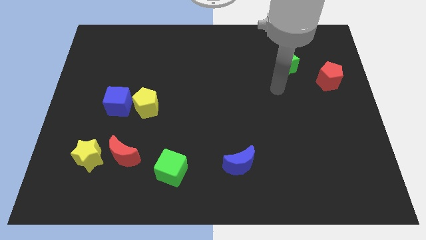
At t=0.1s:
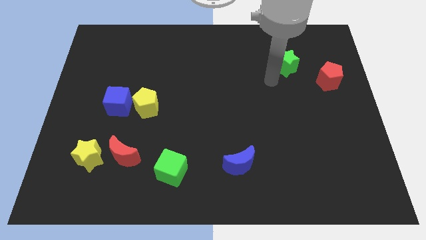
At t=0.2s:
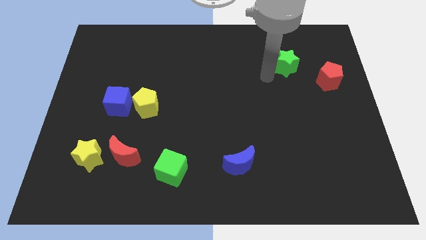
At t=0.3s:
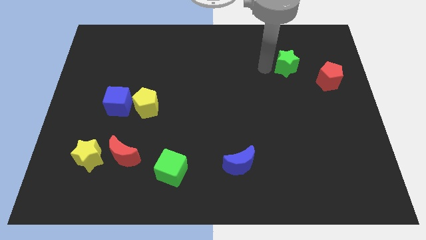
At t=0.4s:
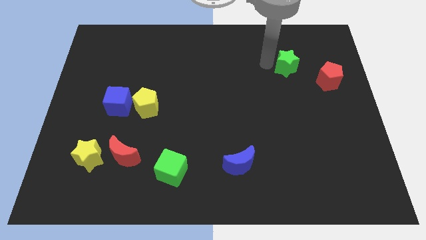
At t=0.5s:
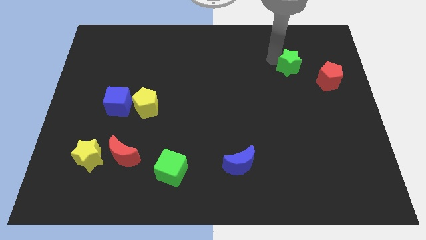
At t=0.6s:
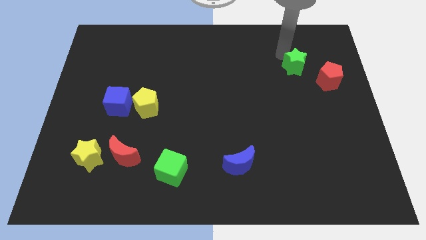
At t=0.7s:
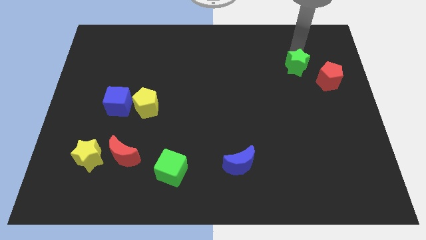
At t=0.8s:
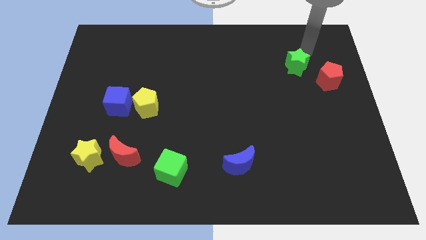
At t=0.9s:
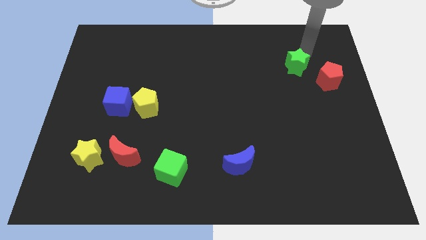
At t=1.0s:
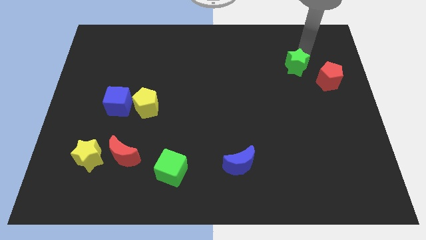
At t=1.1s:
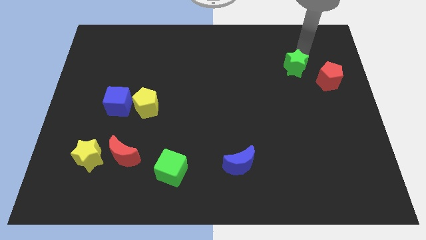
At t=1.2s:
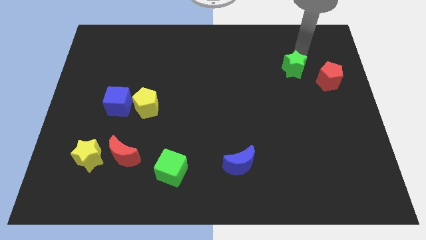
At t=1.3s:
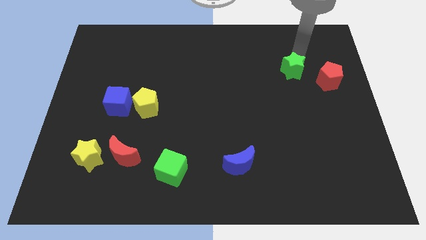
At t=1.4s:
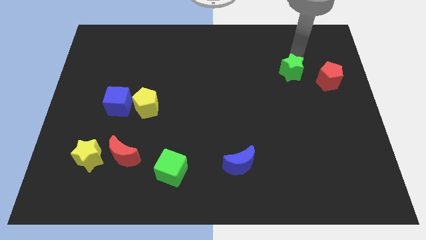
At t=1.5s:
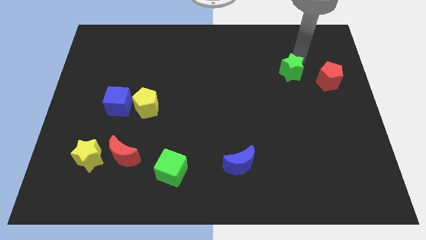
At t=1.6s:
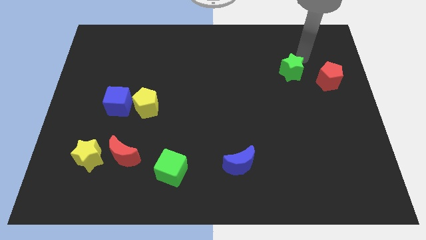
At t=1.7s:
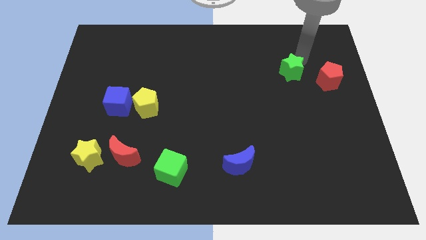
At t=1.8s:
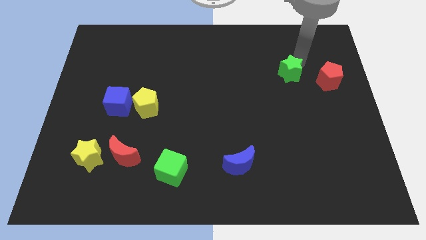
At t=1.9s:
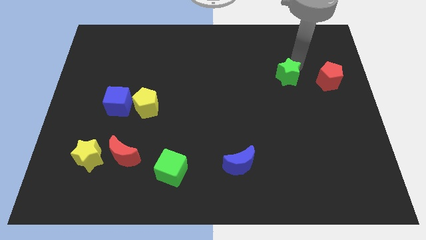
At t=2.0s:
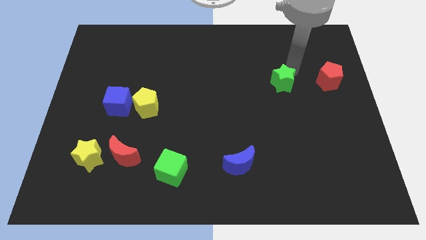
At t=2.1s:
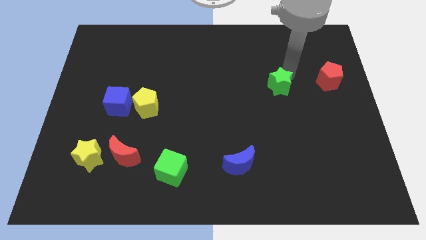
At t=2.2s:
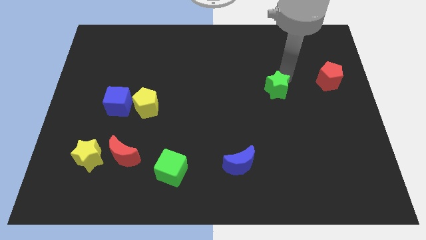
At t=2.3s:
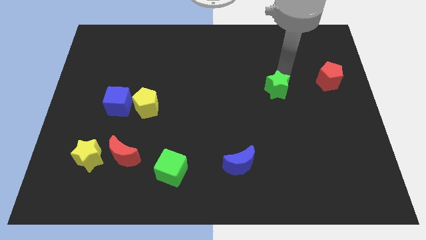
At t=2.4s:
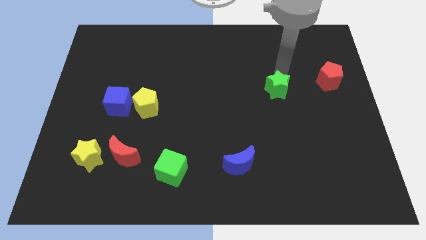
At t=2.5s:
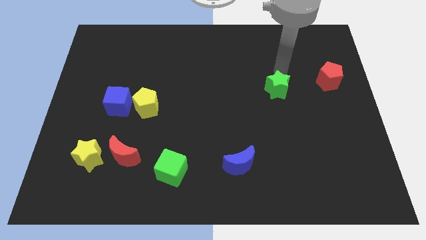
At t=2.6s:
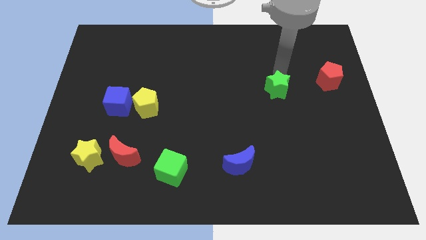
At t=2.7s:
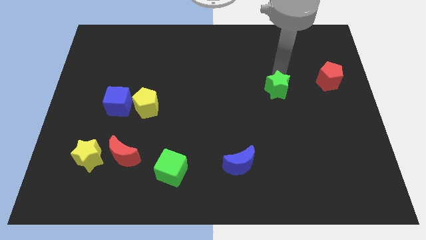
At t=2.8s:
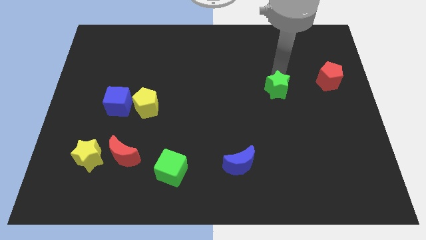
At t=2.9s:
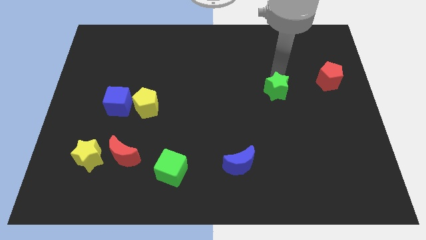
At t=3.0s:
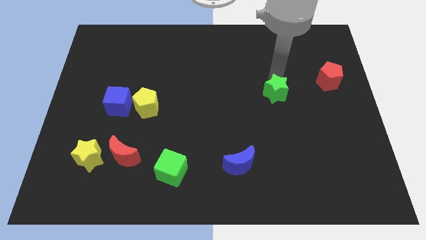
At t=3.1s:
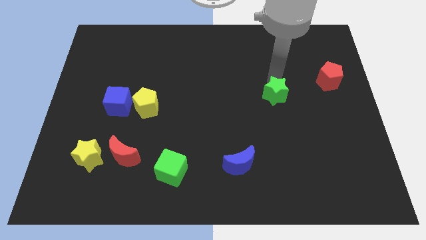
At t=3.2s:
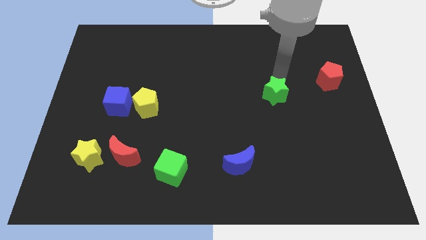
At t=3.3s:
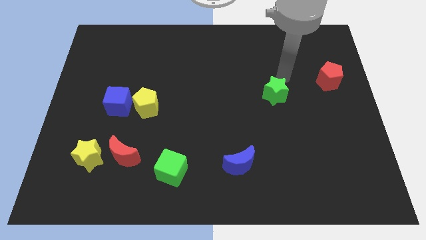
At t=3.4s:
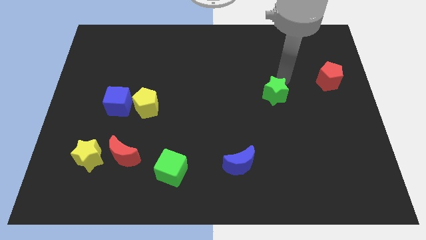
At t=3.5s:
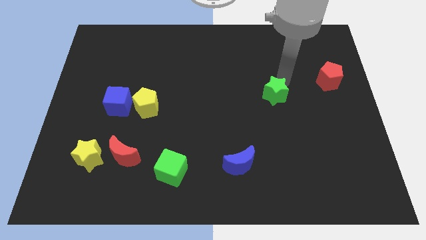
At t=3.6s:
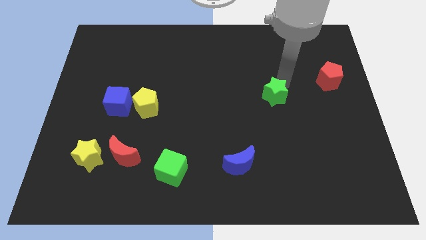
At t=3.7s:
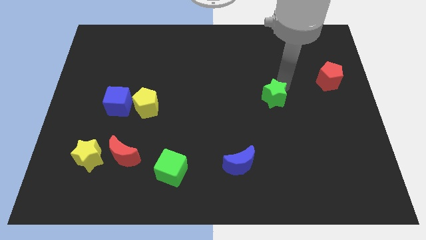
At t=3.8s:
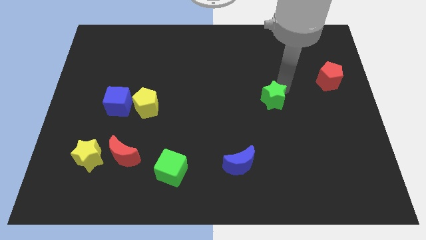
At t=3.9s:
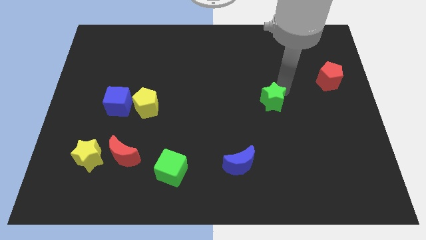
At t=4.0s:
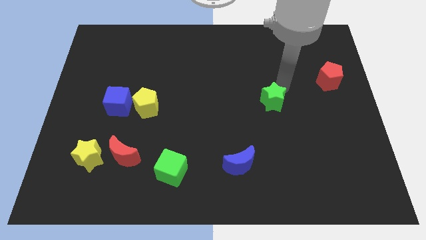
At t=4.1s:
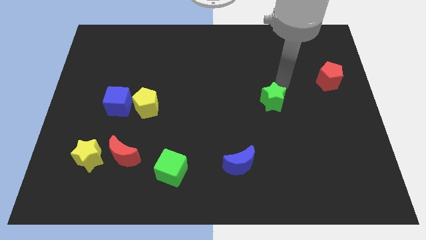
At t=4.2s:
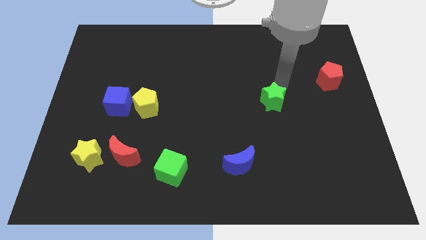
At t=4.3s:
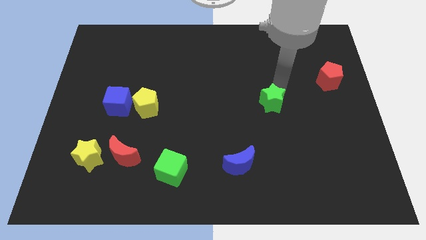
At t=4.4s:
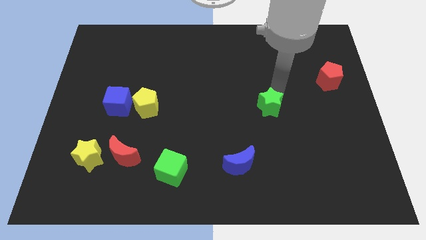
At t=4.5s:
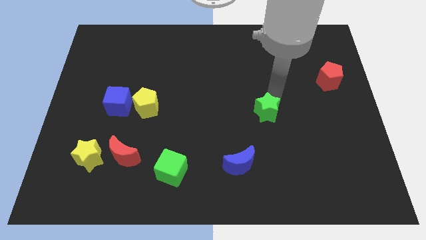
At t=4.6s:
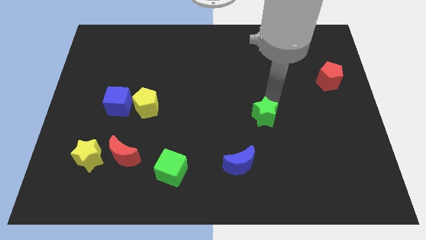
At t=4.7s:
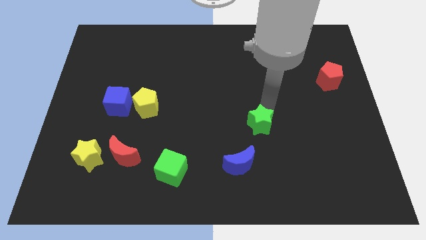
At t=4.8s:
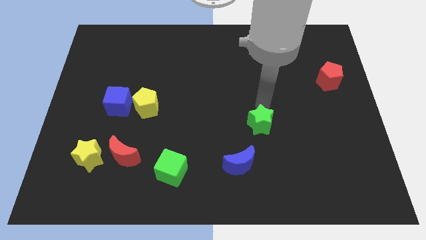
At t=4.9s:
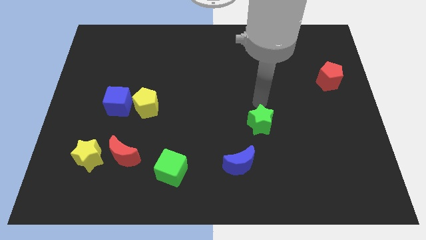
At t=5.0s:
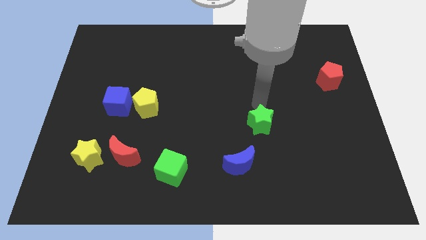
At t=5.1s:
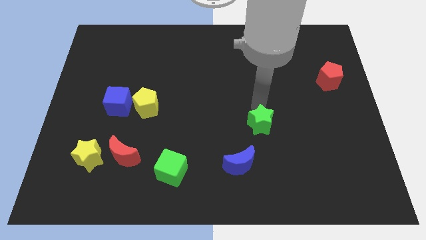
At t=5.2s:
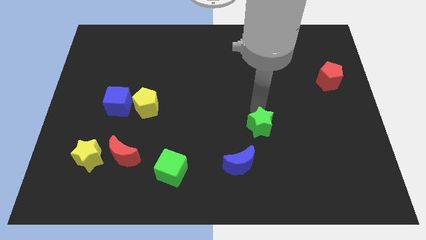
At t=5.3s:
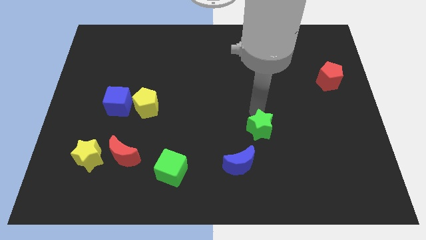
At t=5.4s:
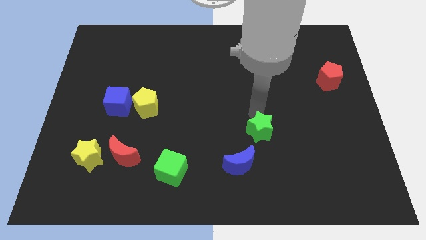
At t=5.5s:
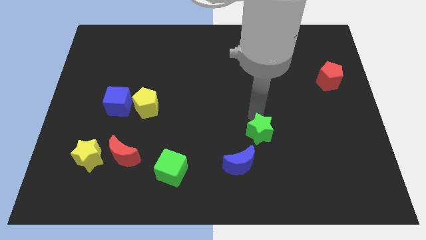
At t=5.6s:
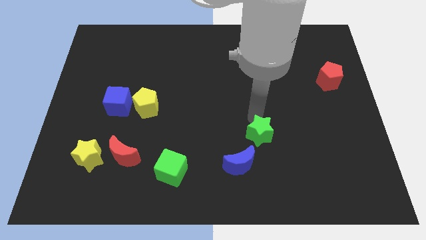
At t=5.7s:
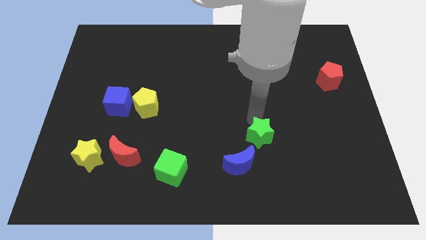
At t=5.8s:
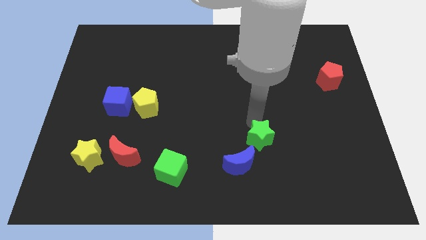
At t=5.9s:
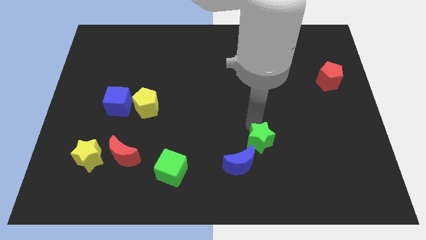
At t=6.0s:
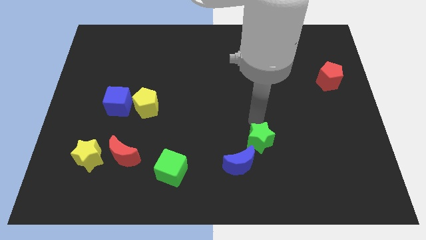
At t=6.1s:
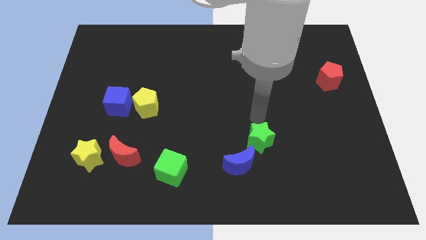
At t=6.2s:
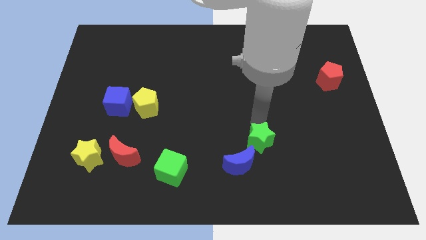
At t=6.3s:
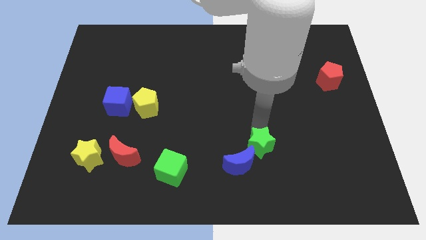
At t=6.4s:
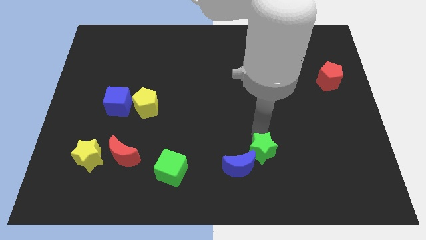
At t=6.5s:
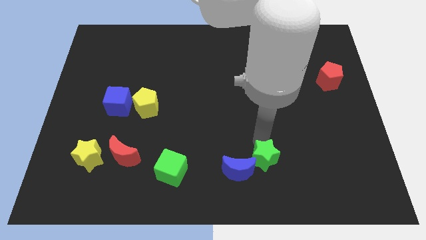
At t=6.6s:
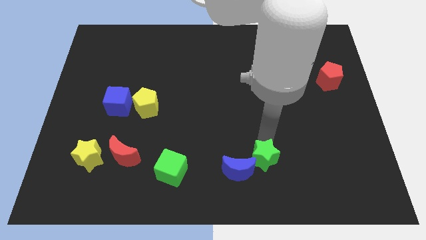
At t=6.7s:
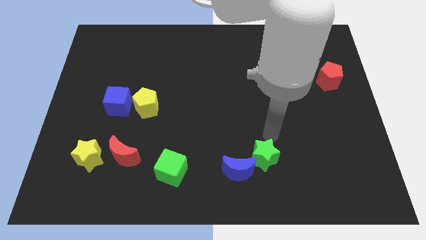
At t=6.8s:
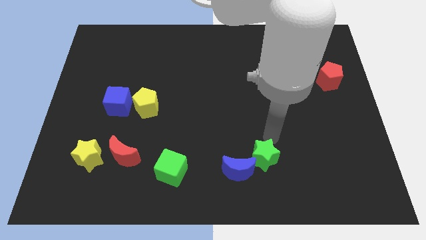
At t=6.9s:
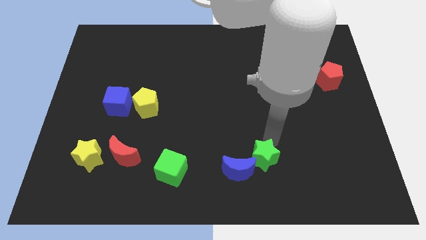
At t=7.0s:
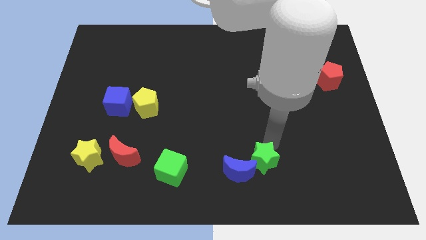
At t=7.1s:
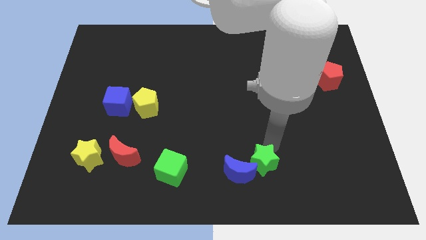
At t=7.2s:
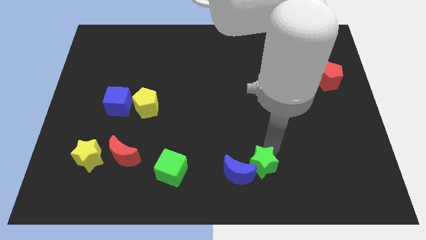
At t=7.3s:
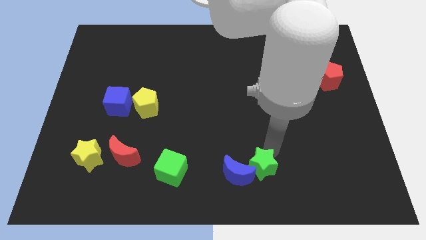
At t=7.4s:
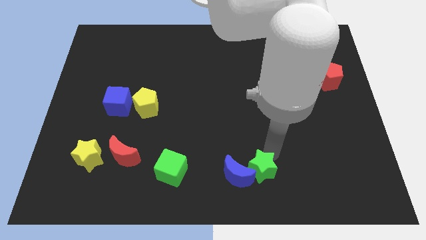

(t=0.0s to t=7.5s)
put the green star to the bottom side
